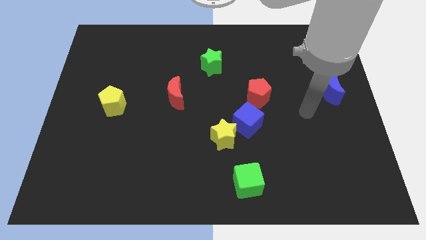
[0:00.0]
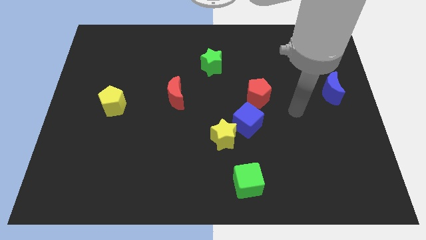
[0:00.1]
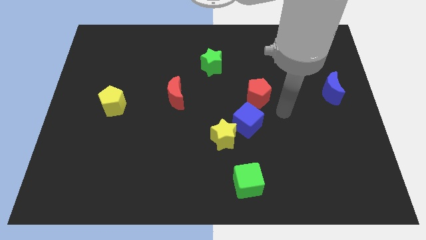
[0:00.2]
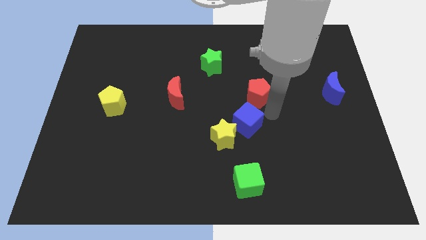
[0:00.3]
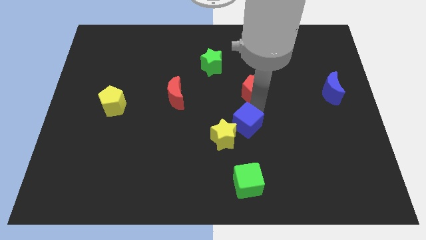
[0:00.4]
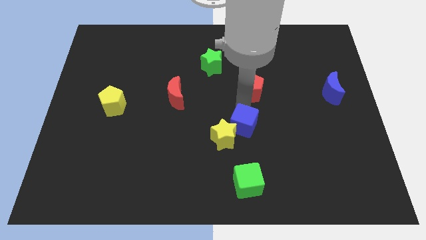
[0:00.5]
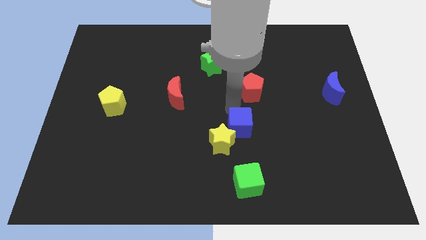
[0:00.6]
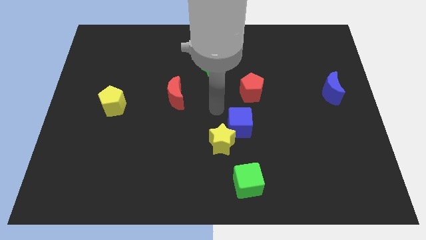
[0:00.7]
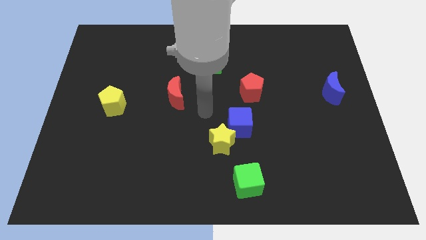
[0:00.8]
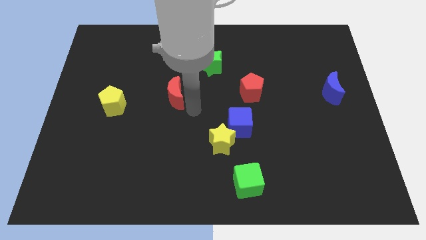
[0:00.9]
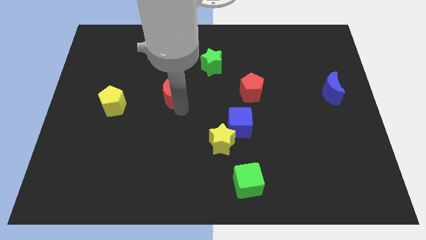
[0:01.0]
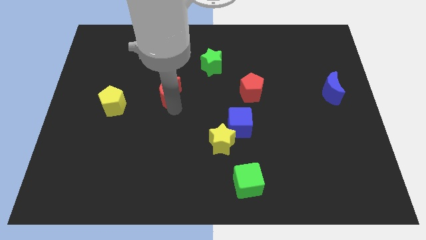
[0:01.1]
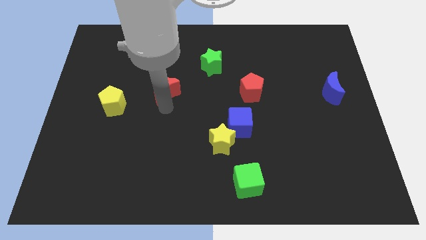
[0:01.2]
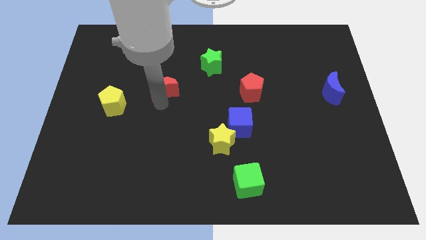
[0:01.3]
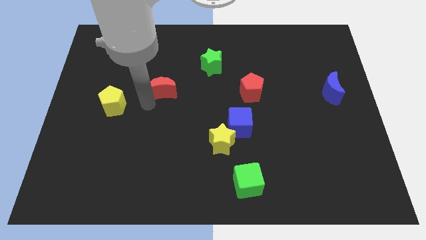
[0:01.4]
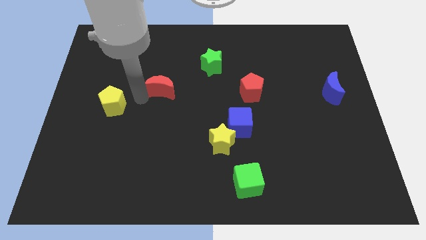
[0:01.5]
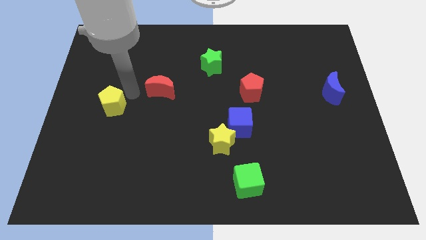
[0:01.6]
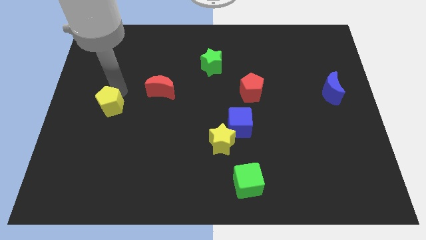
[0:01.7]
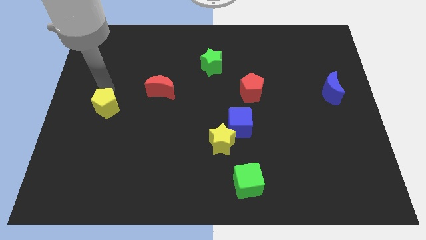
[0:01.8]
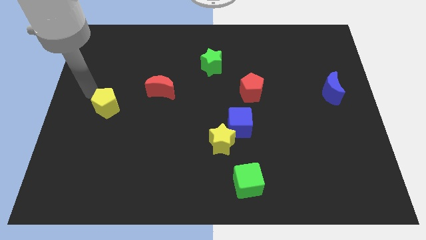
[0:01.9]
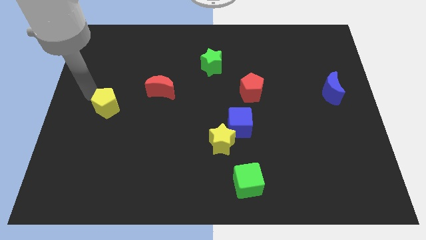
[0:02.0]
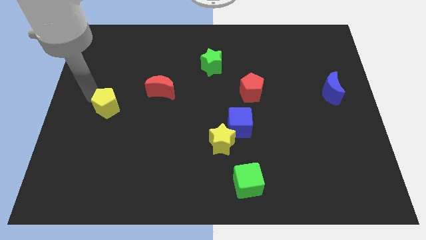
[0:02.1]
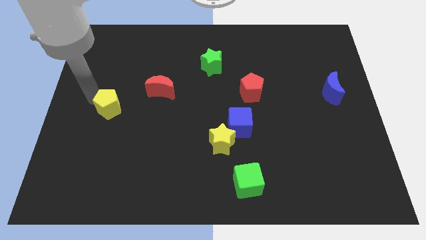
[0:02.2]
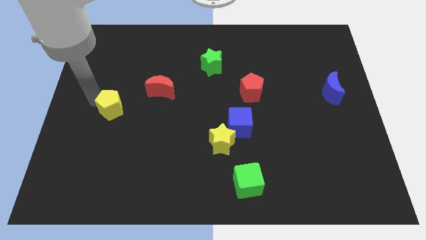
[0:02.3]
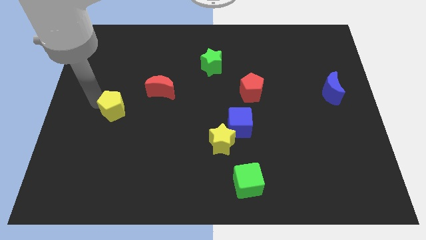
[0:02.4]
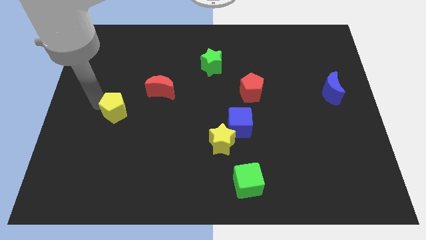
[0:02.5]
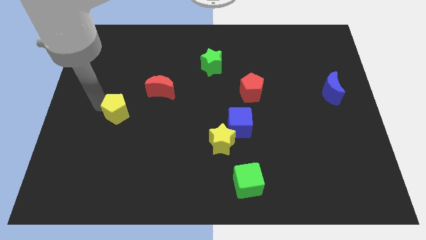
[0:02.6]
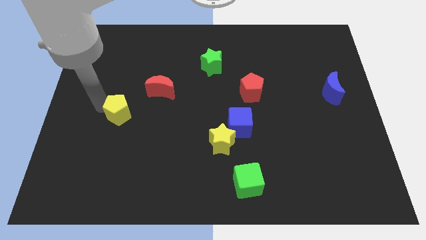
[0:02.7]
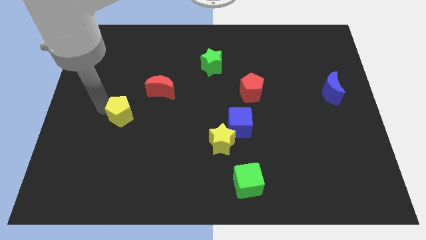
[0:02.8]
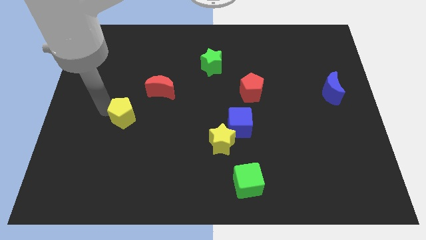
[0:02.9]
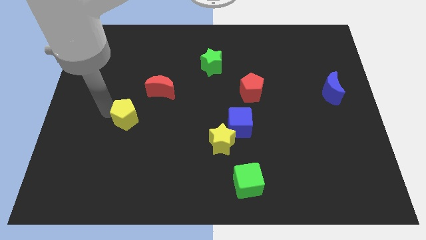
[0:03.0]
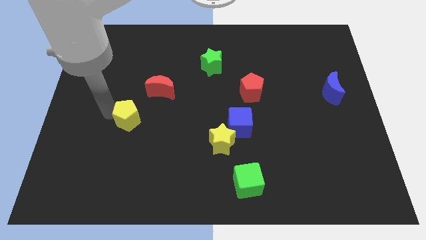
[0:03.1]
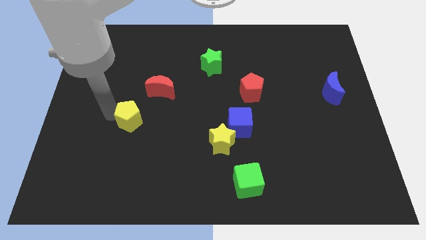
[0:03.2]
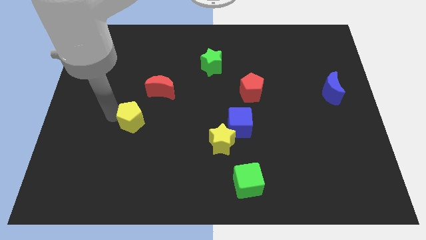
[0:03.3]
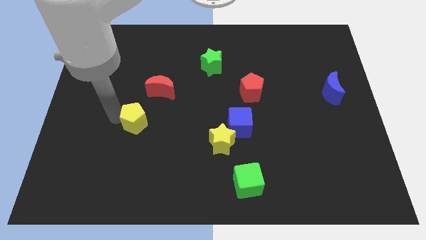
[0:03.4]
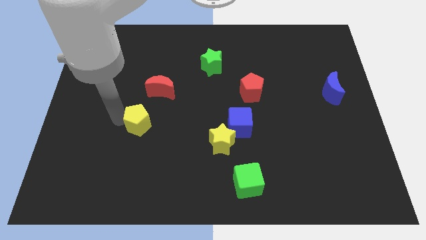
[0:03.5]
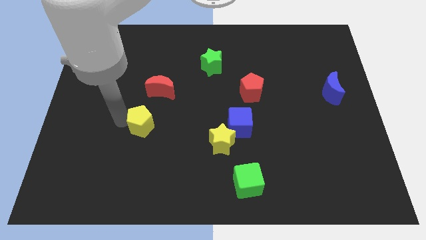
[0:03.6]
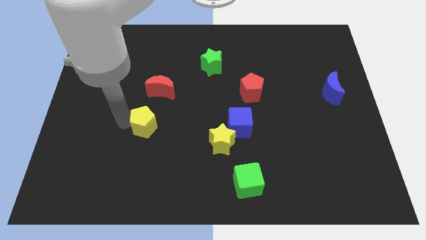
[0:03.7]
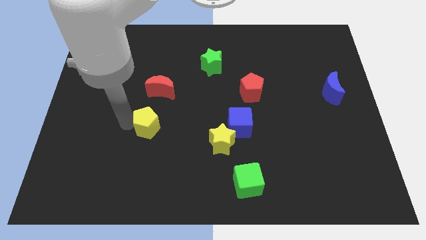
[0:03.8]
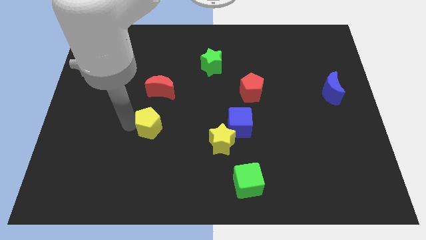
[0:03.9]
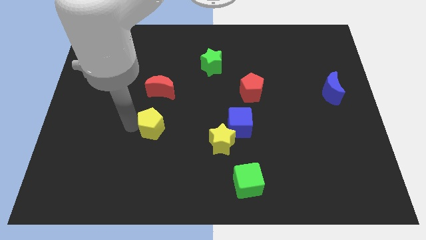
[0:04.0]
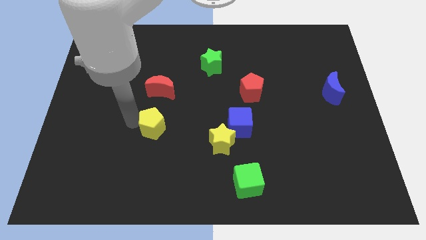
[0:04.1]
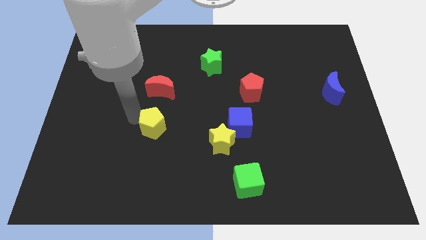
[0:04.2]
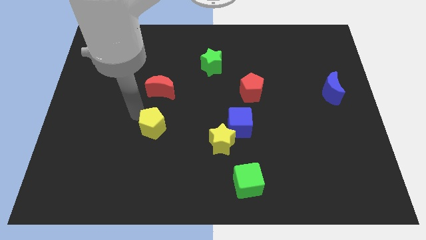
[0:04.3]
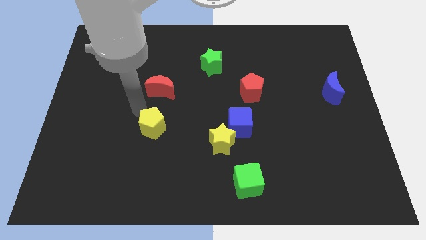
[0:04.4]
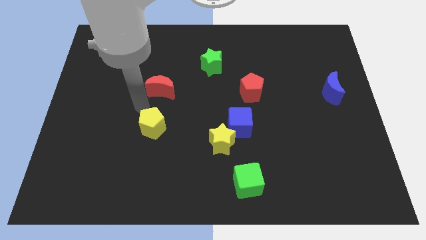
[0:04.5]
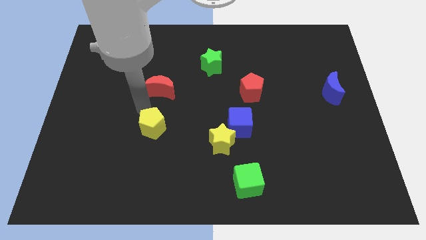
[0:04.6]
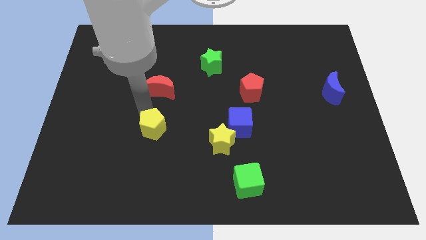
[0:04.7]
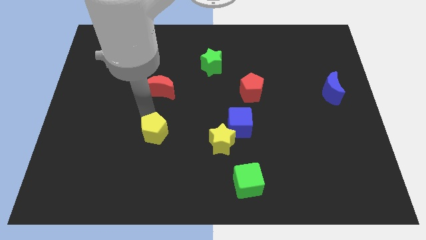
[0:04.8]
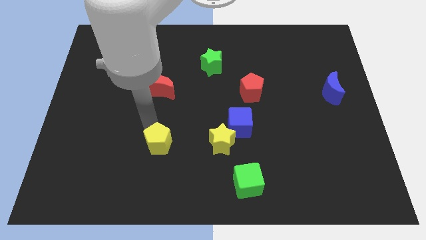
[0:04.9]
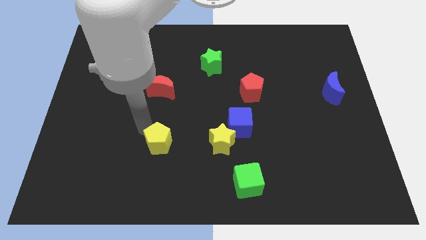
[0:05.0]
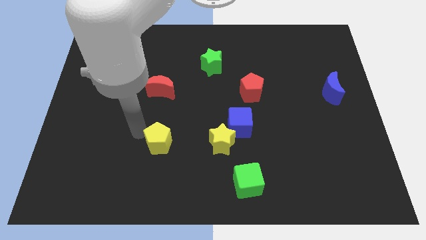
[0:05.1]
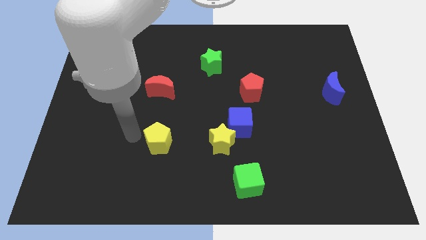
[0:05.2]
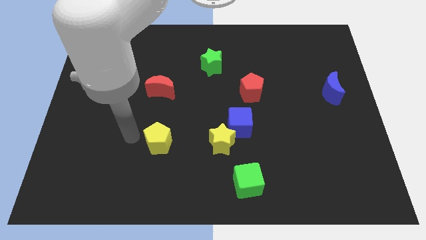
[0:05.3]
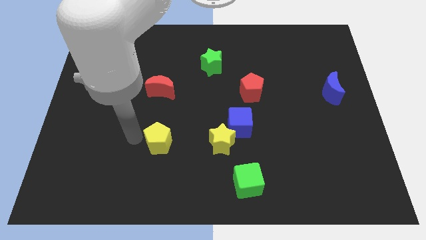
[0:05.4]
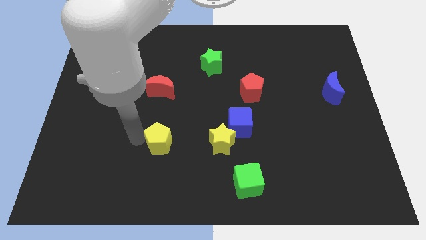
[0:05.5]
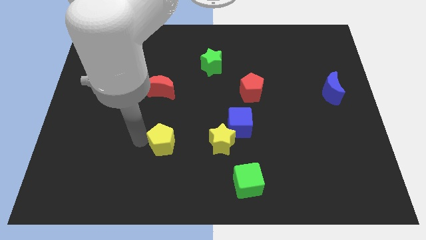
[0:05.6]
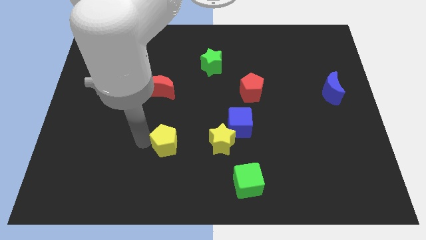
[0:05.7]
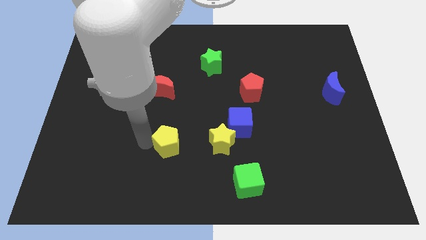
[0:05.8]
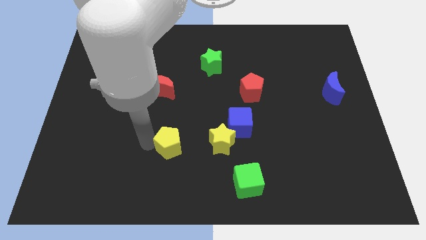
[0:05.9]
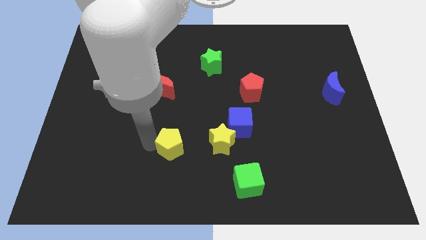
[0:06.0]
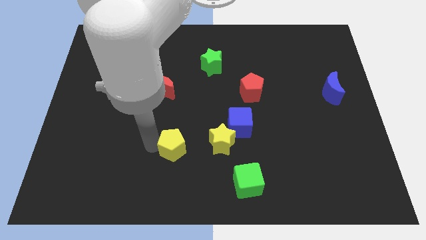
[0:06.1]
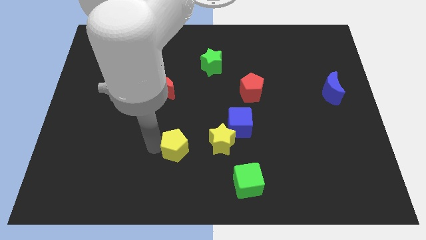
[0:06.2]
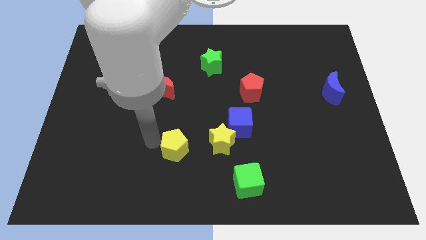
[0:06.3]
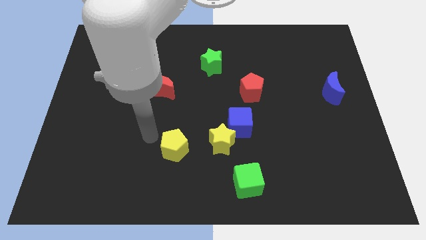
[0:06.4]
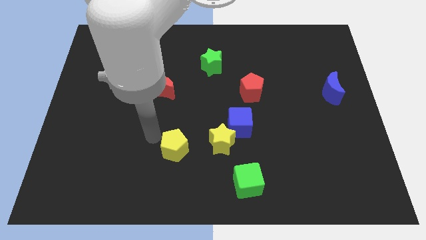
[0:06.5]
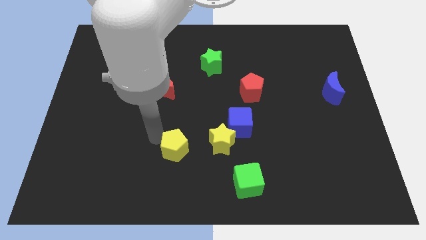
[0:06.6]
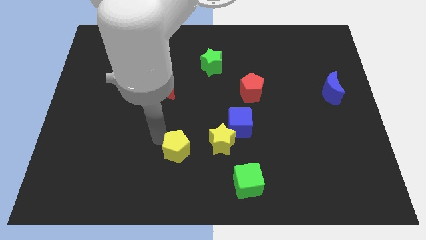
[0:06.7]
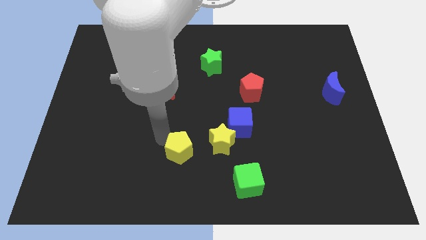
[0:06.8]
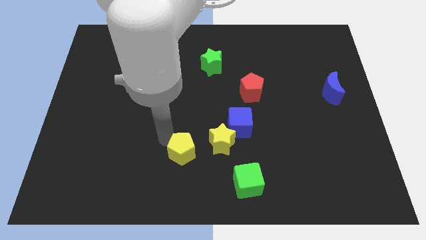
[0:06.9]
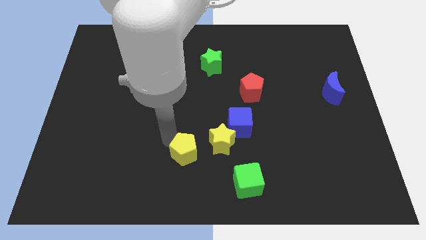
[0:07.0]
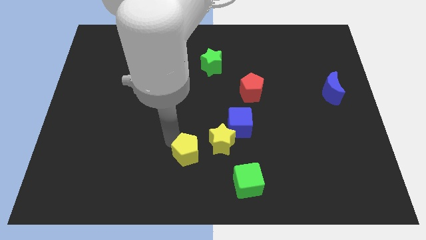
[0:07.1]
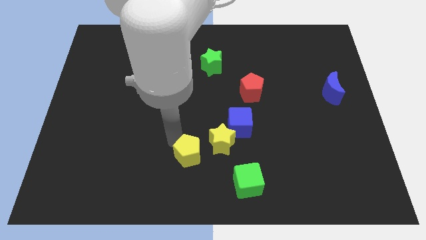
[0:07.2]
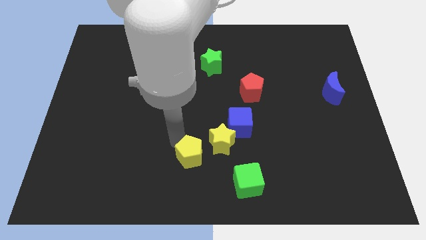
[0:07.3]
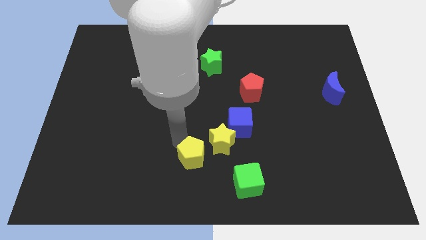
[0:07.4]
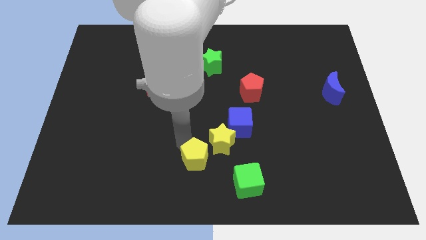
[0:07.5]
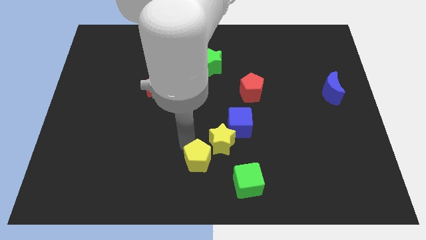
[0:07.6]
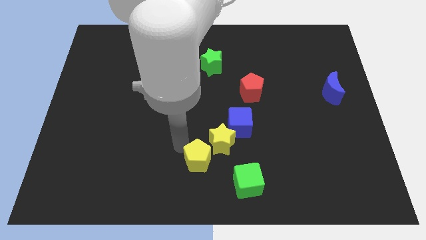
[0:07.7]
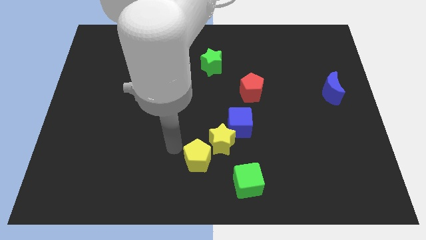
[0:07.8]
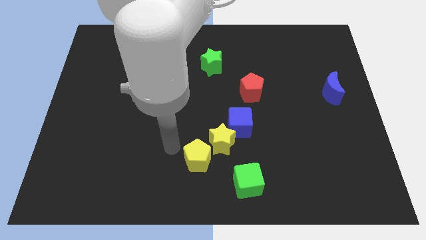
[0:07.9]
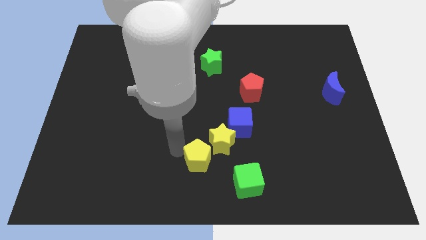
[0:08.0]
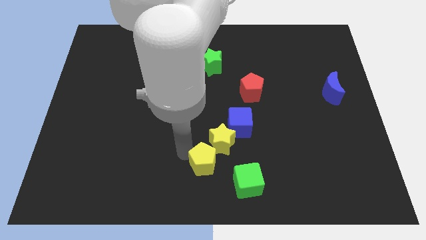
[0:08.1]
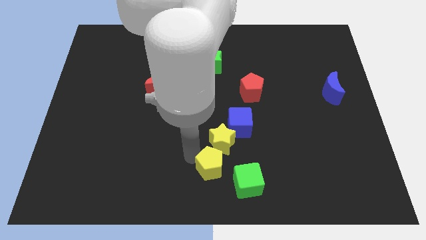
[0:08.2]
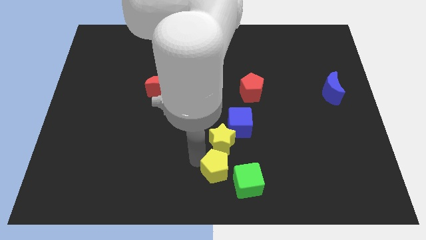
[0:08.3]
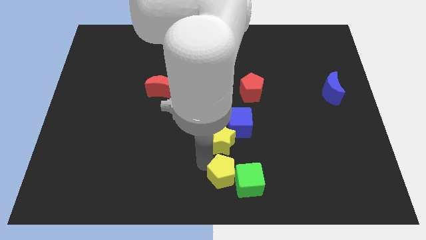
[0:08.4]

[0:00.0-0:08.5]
push the yellow pentagon to the green cube
